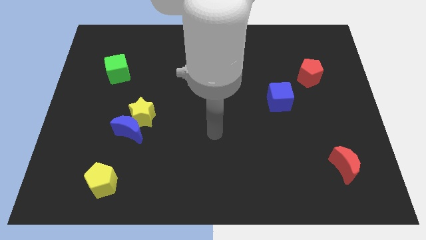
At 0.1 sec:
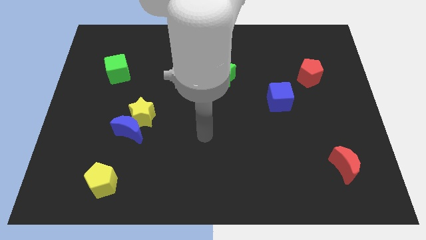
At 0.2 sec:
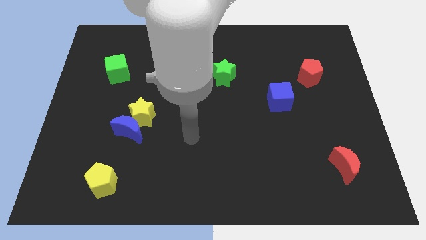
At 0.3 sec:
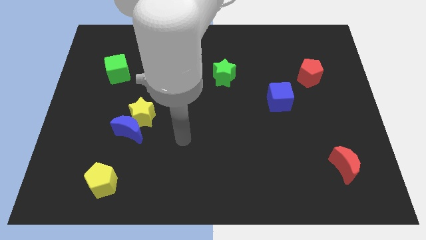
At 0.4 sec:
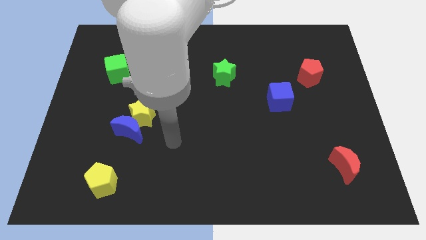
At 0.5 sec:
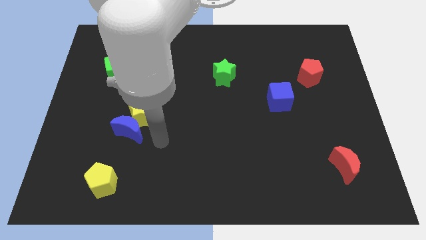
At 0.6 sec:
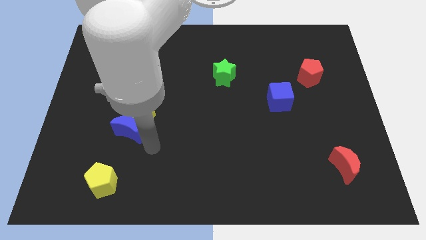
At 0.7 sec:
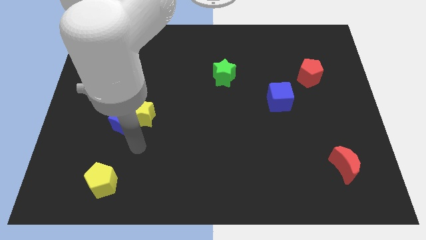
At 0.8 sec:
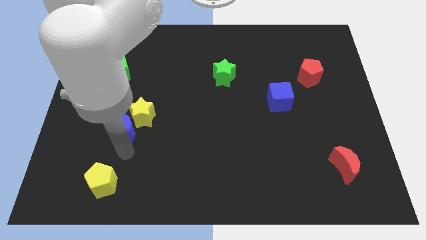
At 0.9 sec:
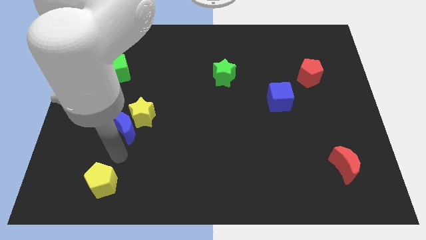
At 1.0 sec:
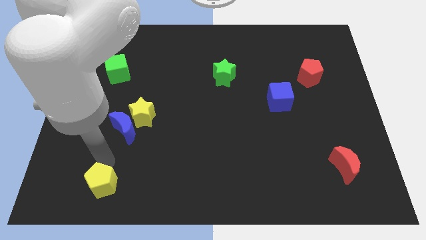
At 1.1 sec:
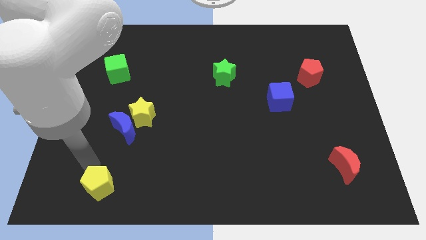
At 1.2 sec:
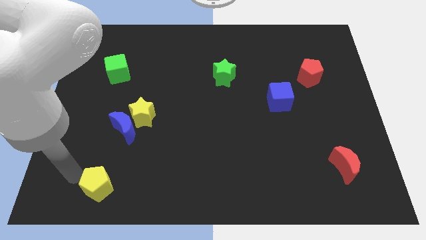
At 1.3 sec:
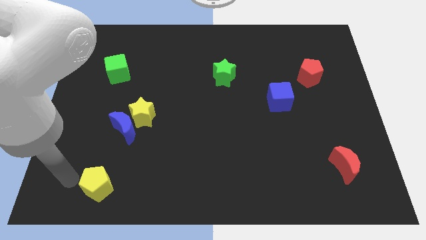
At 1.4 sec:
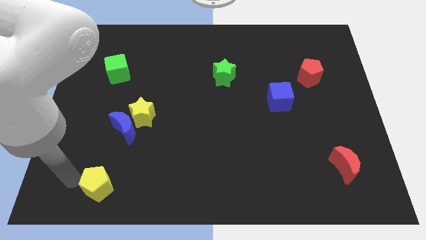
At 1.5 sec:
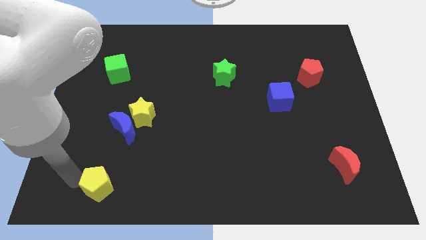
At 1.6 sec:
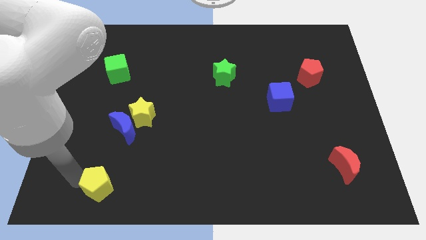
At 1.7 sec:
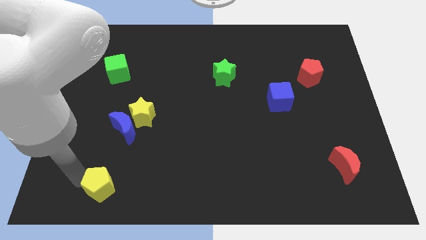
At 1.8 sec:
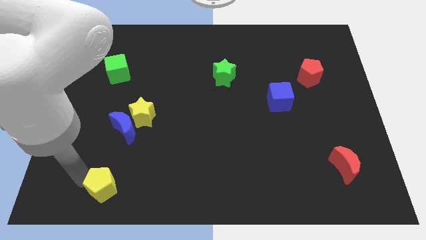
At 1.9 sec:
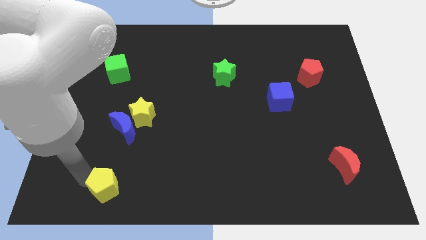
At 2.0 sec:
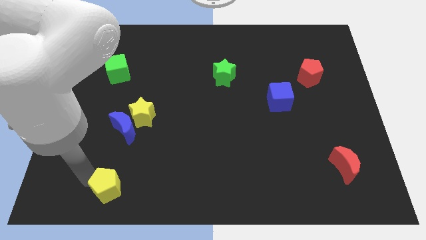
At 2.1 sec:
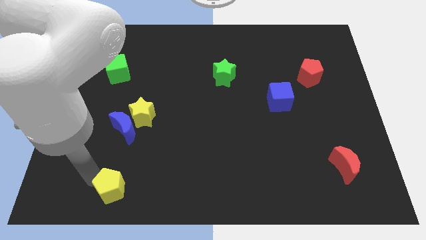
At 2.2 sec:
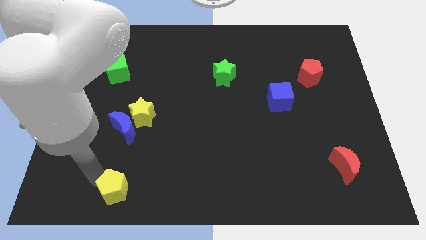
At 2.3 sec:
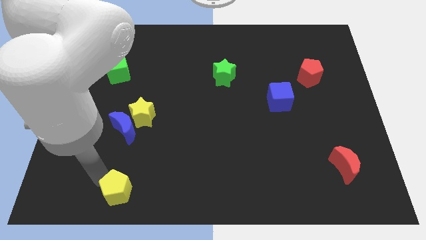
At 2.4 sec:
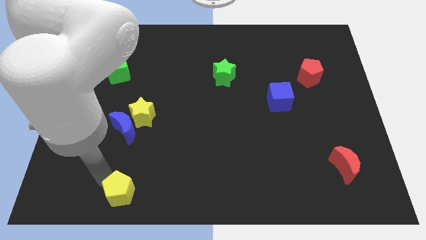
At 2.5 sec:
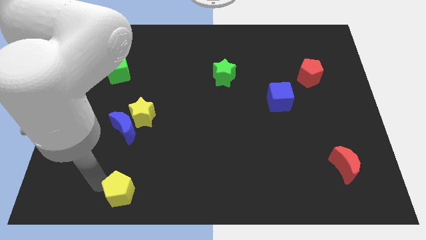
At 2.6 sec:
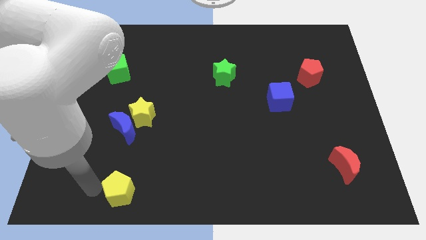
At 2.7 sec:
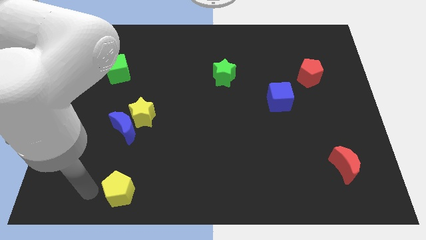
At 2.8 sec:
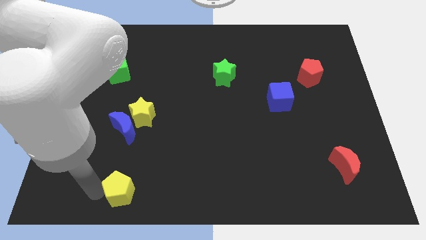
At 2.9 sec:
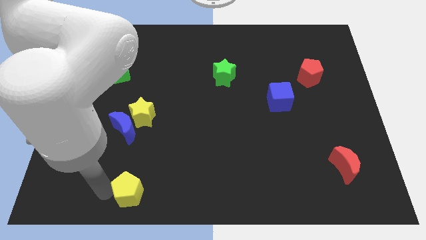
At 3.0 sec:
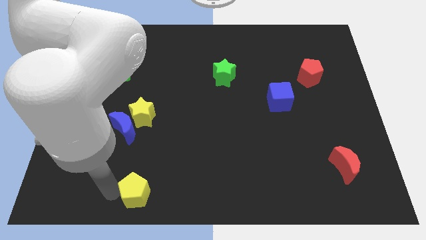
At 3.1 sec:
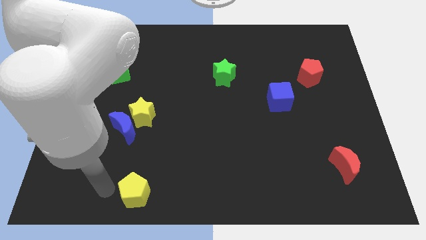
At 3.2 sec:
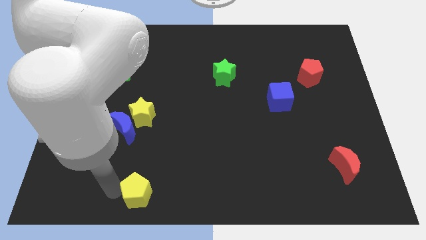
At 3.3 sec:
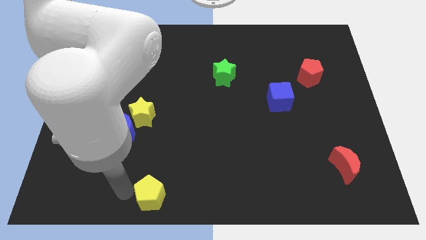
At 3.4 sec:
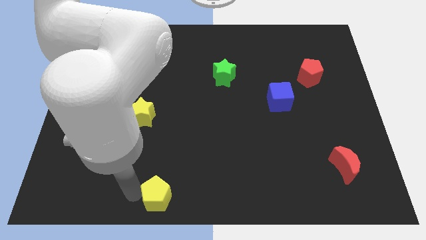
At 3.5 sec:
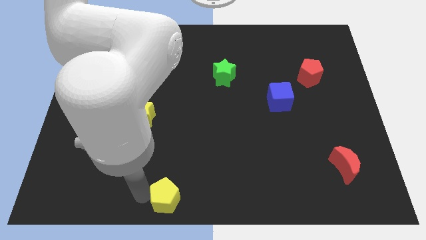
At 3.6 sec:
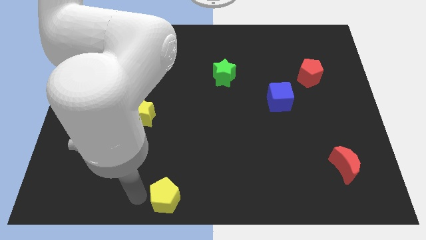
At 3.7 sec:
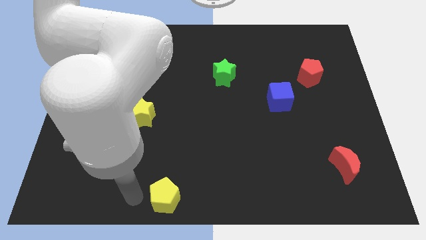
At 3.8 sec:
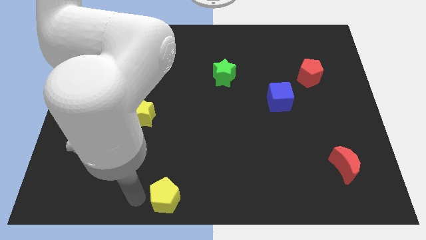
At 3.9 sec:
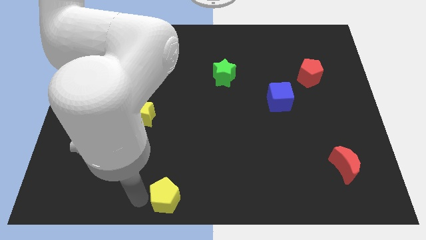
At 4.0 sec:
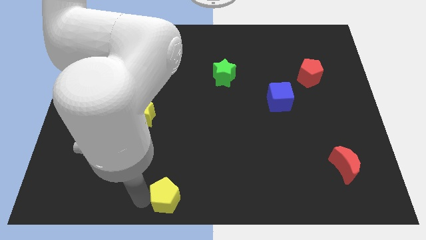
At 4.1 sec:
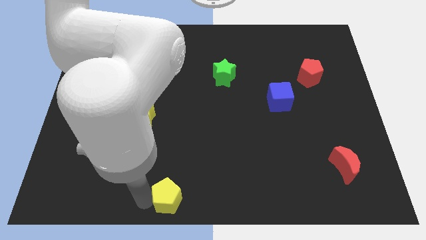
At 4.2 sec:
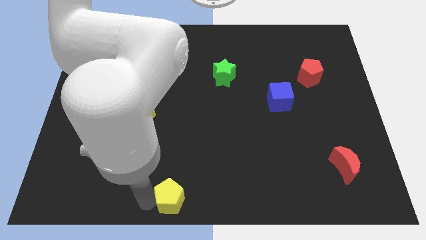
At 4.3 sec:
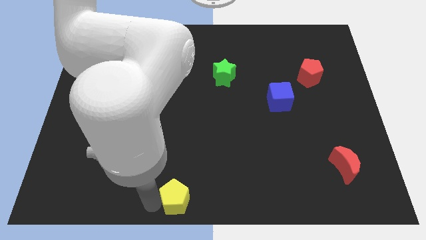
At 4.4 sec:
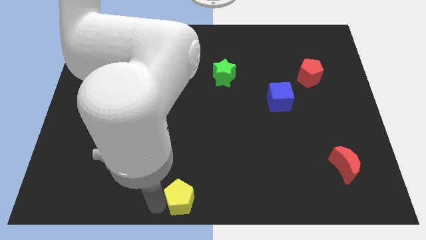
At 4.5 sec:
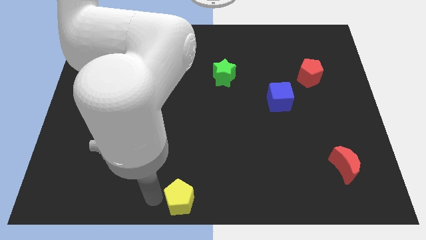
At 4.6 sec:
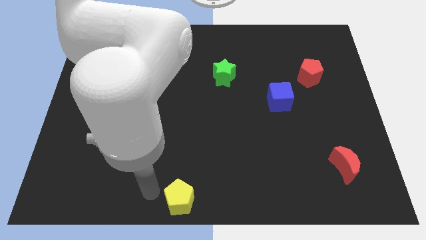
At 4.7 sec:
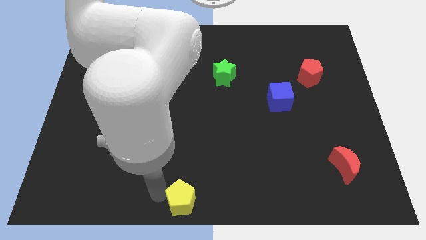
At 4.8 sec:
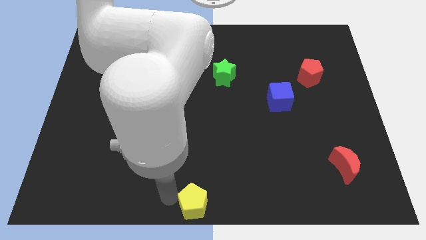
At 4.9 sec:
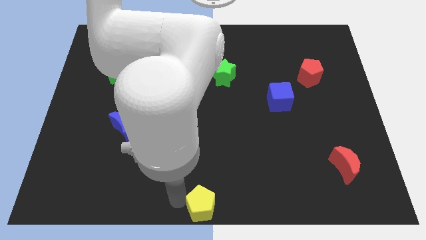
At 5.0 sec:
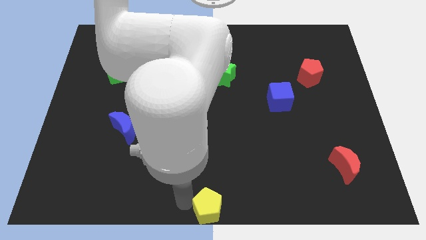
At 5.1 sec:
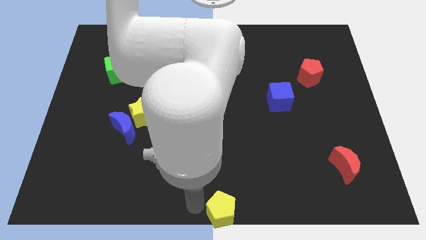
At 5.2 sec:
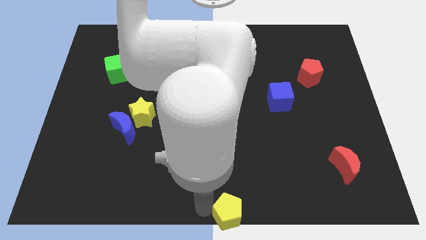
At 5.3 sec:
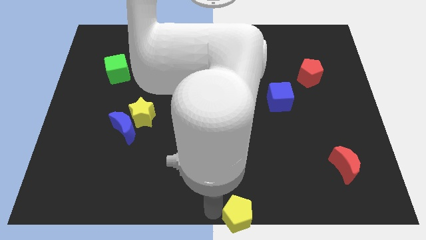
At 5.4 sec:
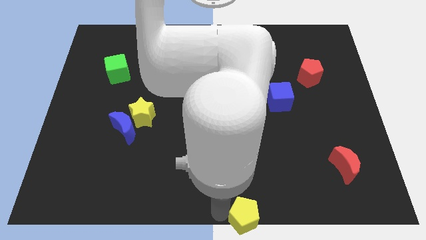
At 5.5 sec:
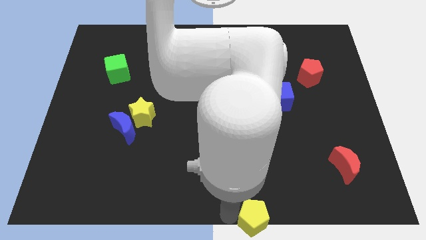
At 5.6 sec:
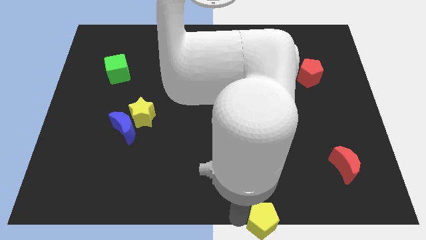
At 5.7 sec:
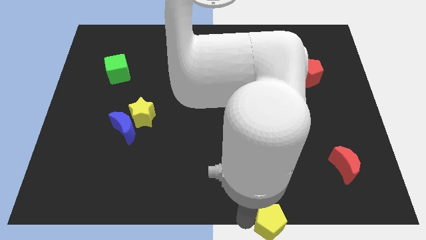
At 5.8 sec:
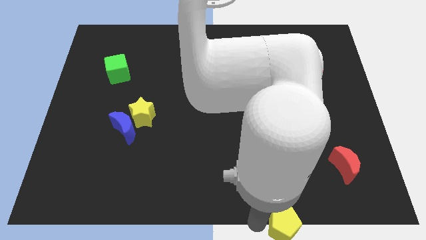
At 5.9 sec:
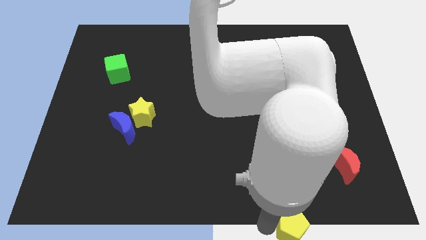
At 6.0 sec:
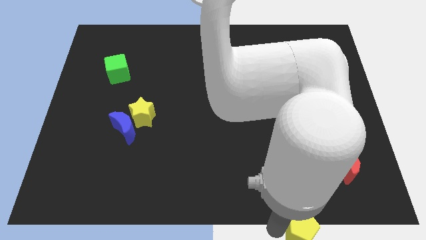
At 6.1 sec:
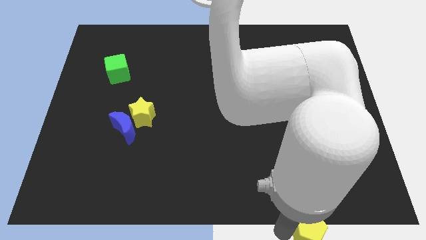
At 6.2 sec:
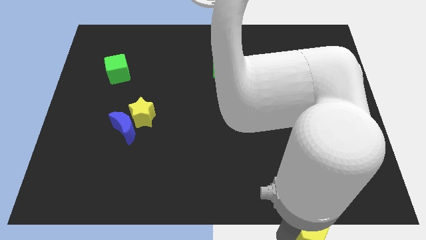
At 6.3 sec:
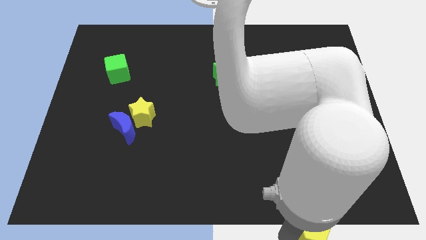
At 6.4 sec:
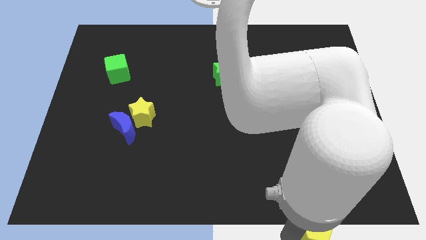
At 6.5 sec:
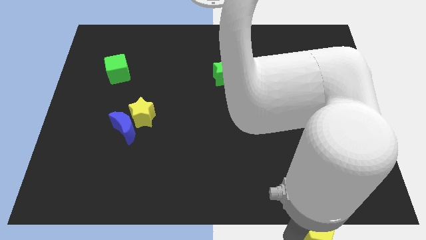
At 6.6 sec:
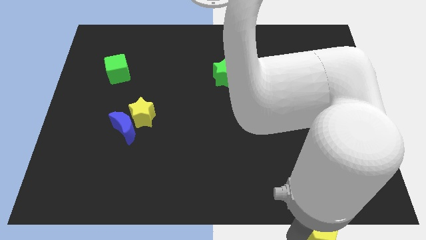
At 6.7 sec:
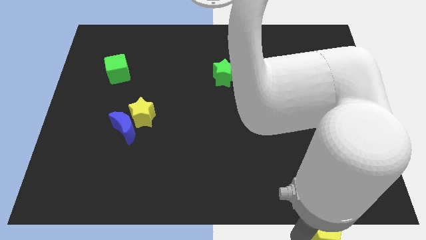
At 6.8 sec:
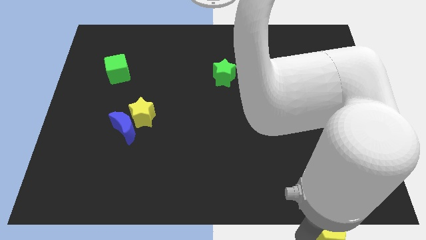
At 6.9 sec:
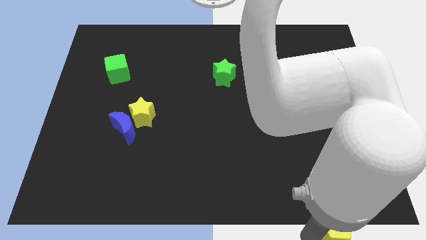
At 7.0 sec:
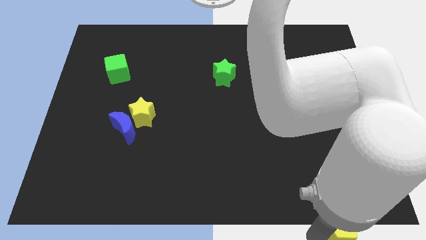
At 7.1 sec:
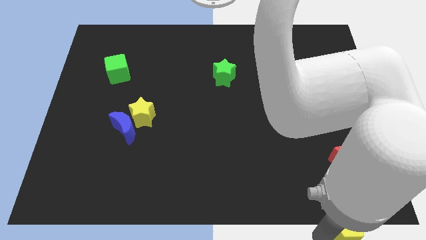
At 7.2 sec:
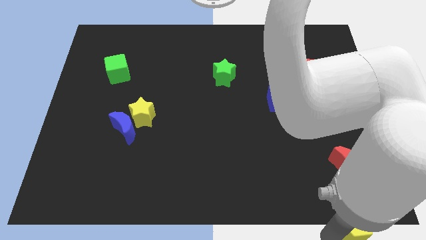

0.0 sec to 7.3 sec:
push the yellow pentagon to the bottom right of the board

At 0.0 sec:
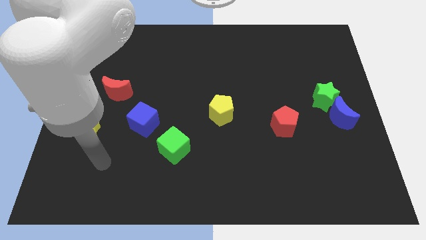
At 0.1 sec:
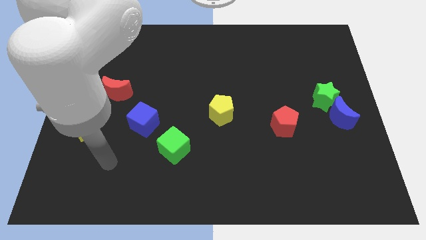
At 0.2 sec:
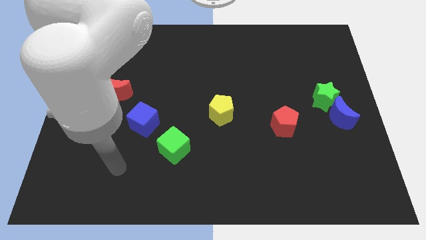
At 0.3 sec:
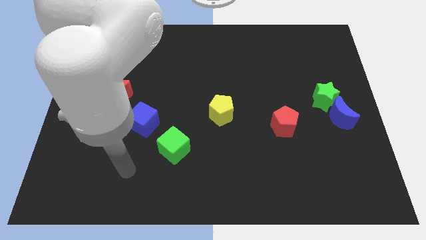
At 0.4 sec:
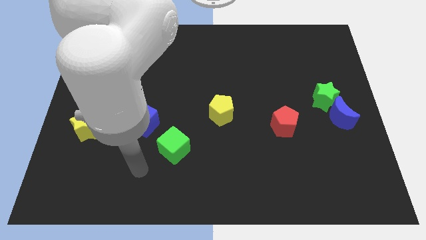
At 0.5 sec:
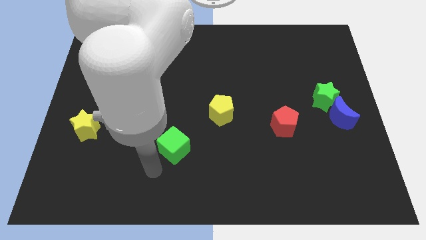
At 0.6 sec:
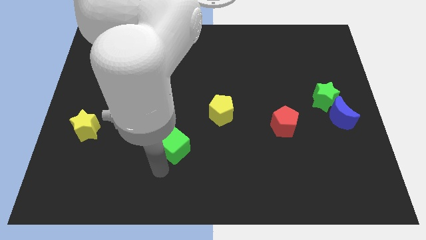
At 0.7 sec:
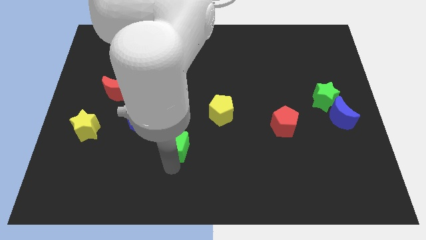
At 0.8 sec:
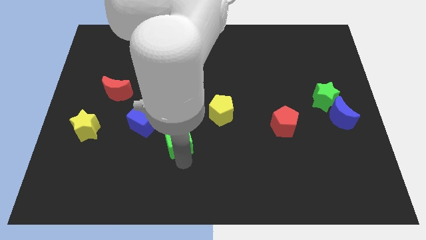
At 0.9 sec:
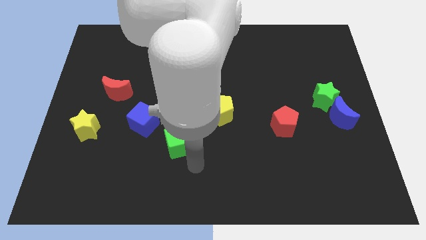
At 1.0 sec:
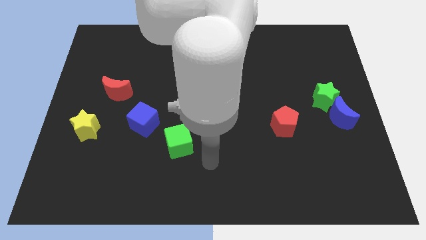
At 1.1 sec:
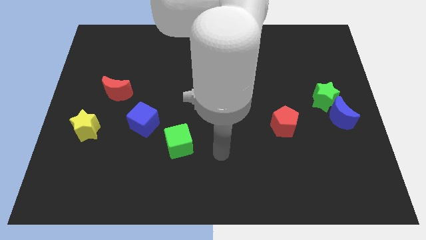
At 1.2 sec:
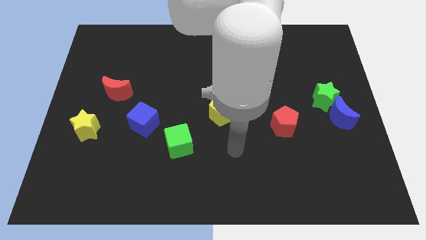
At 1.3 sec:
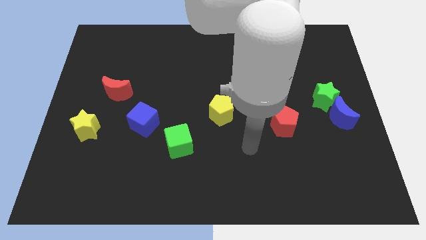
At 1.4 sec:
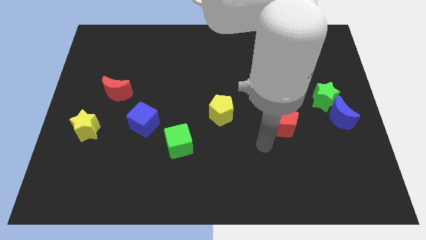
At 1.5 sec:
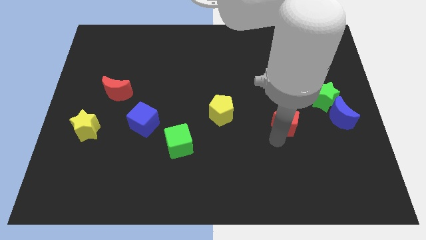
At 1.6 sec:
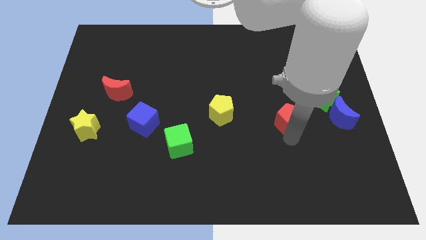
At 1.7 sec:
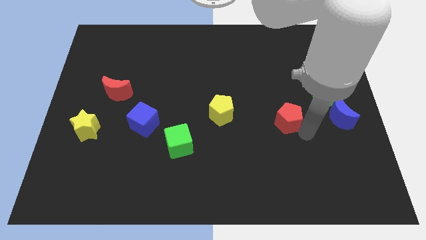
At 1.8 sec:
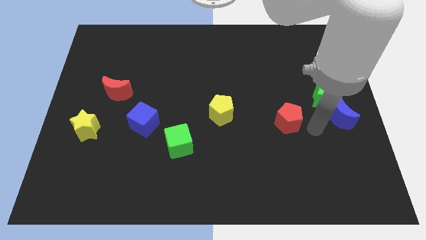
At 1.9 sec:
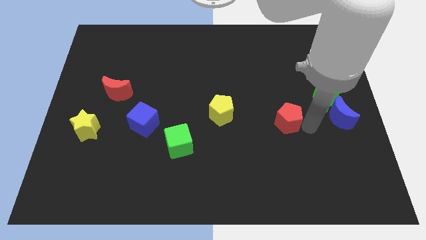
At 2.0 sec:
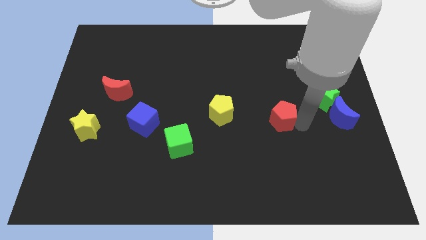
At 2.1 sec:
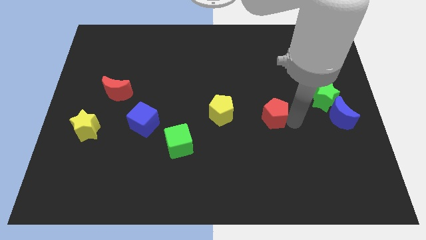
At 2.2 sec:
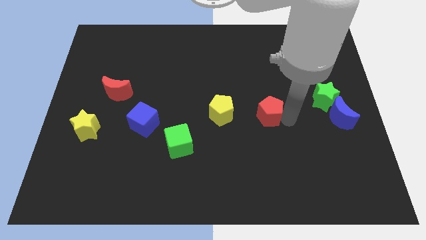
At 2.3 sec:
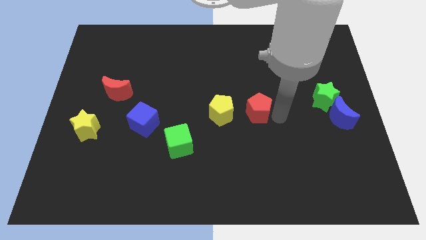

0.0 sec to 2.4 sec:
push the red pentagon to the middle
